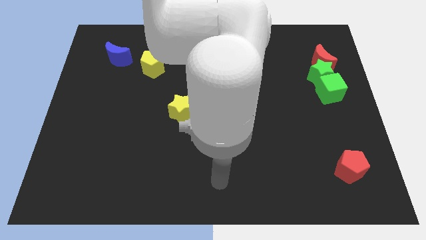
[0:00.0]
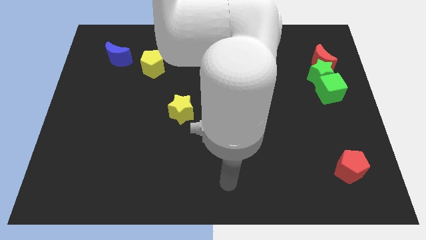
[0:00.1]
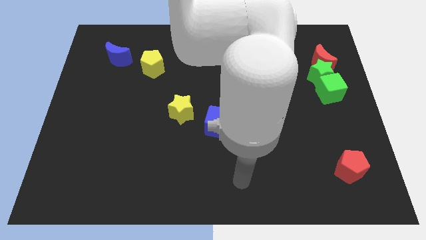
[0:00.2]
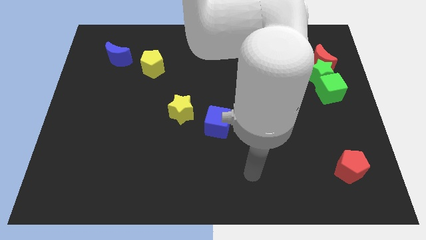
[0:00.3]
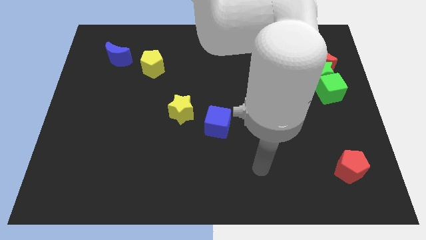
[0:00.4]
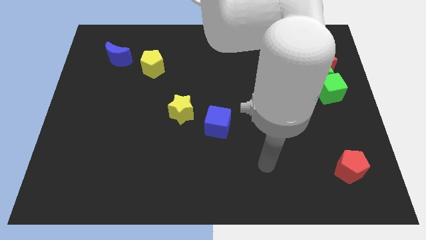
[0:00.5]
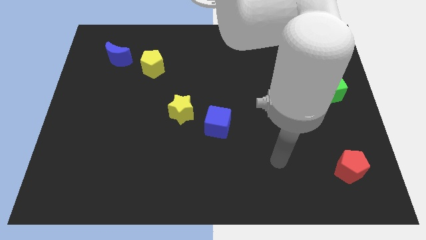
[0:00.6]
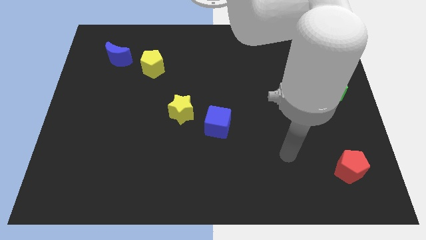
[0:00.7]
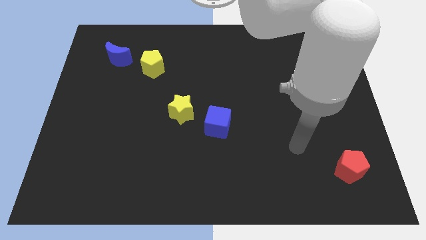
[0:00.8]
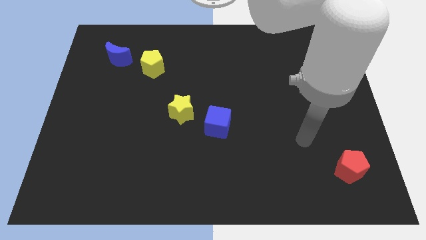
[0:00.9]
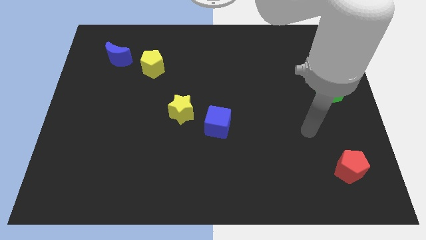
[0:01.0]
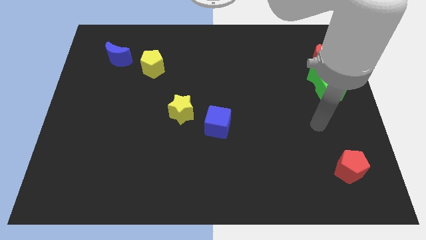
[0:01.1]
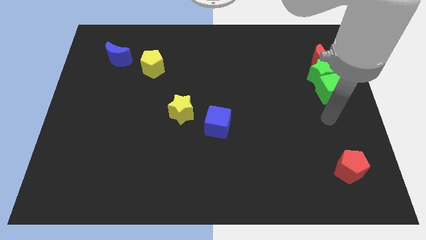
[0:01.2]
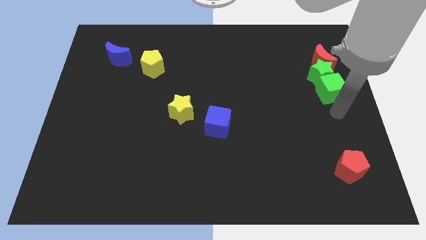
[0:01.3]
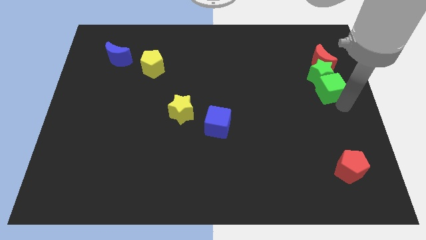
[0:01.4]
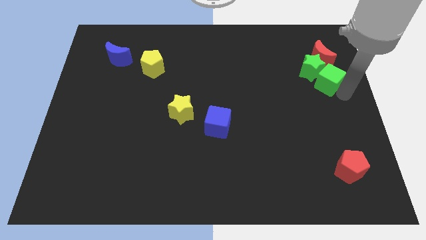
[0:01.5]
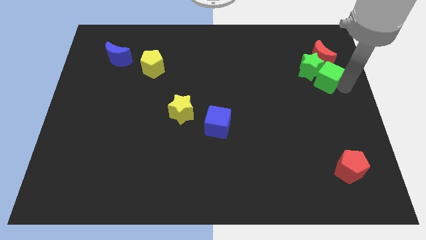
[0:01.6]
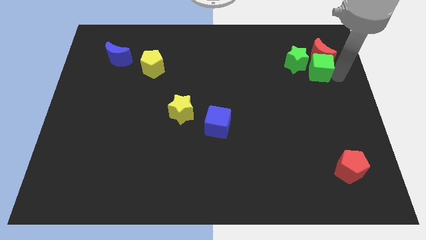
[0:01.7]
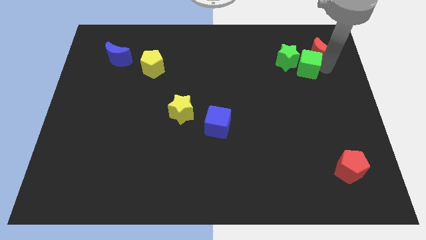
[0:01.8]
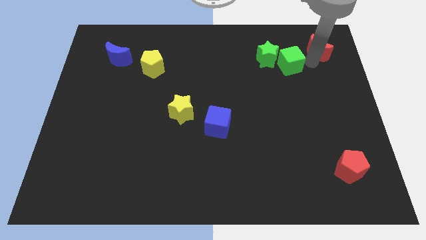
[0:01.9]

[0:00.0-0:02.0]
move the green star away from the red moon and green cube

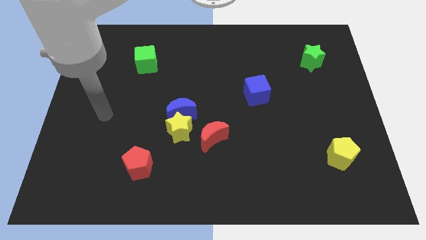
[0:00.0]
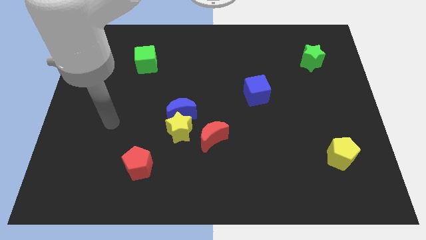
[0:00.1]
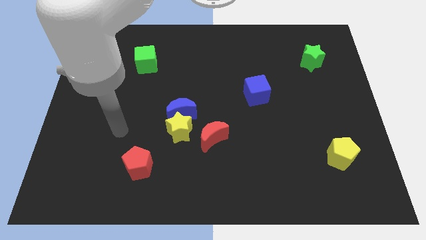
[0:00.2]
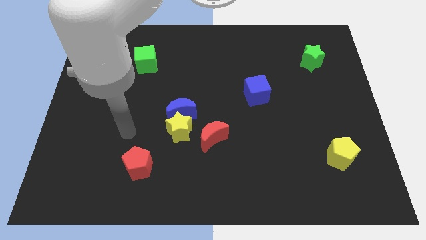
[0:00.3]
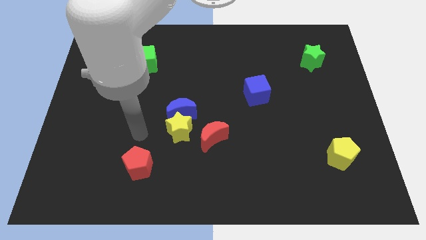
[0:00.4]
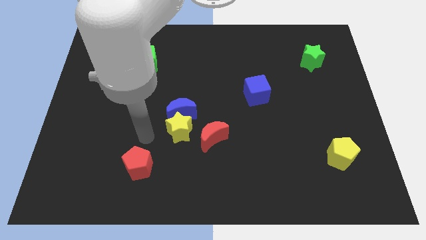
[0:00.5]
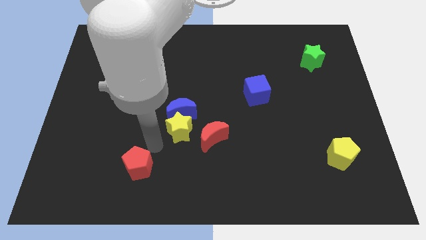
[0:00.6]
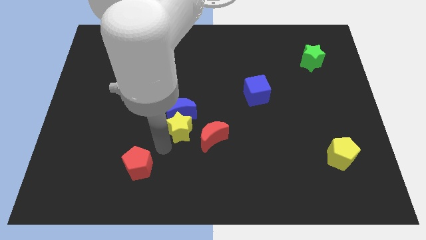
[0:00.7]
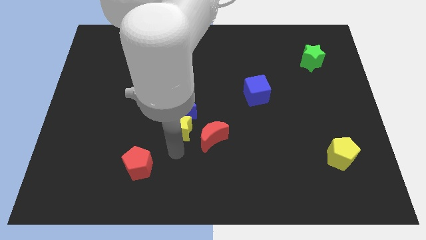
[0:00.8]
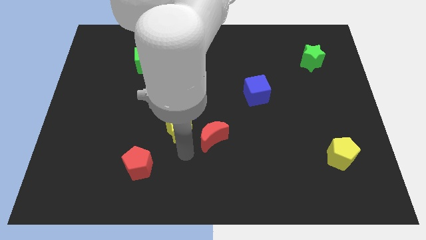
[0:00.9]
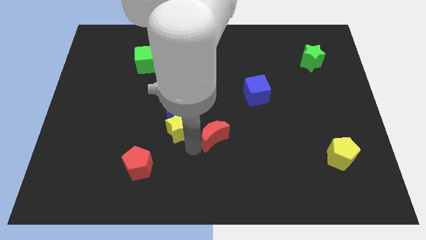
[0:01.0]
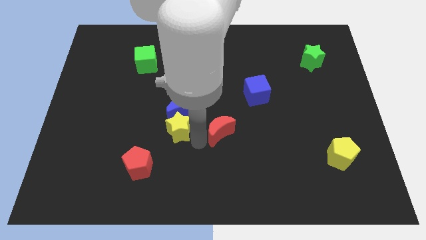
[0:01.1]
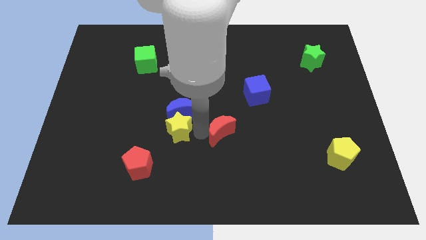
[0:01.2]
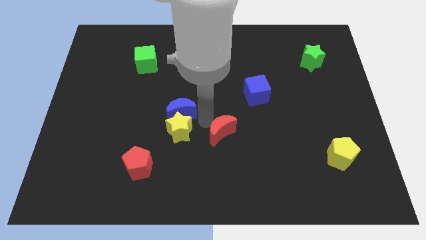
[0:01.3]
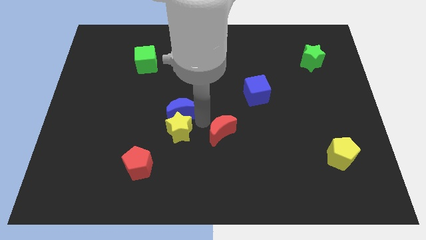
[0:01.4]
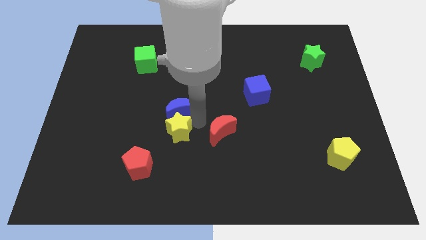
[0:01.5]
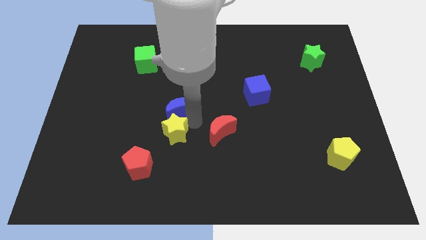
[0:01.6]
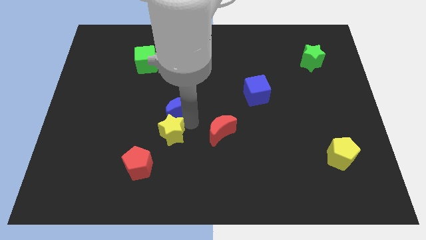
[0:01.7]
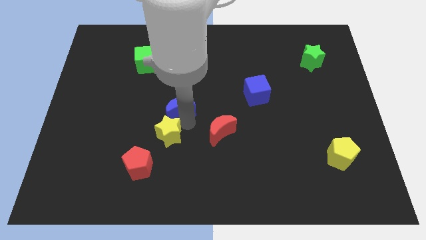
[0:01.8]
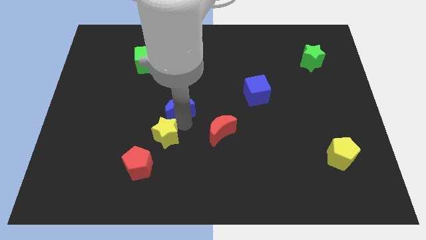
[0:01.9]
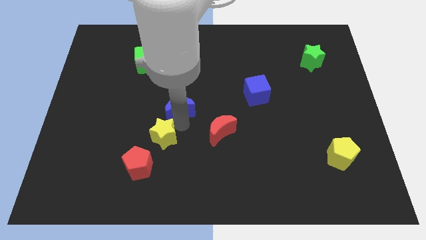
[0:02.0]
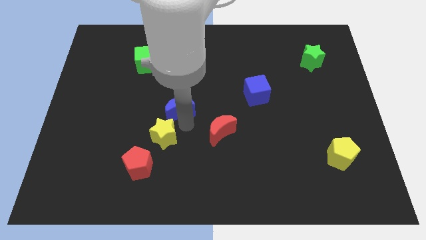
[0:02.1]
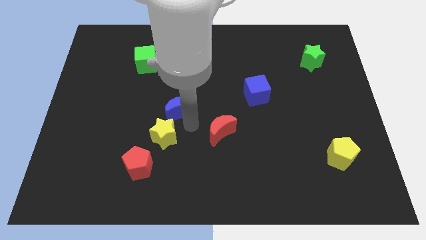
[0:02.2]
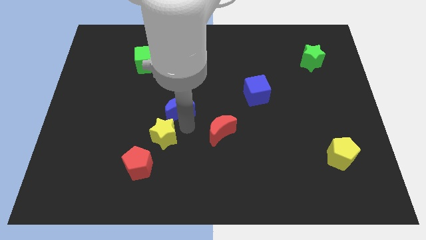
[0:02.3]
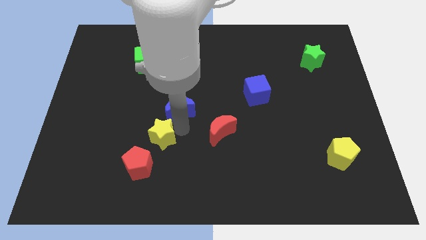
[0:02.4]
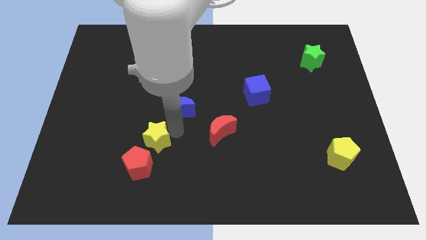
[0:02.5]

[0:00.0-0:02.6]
move the yellow star away from the blue moon and red moon

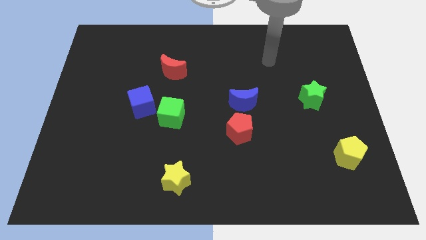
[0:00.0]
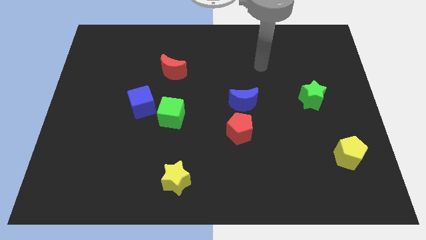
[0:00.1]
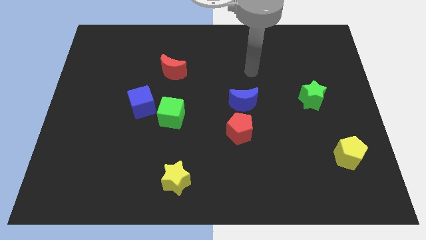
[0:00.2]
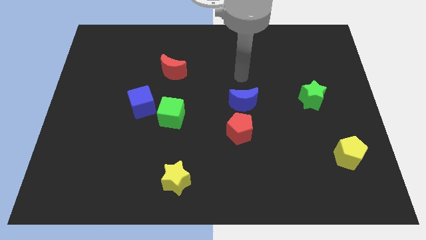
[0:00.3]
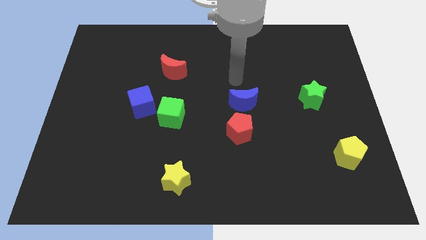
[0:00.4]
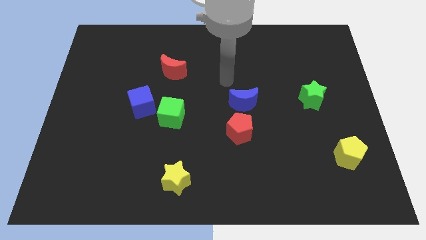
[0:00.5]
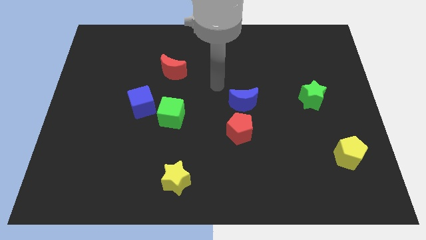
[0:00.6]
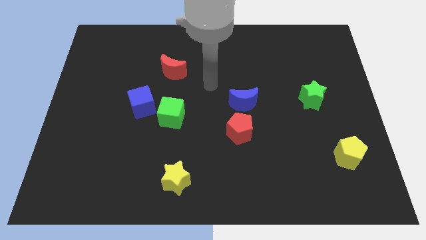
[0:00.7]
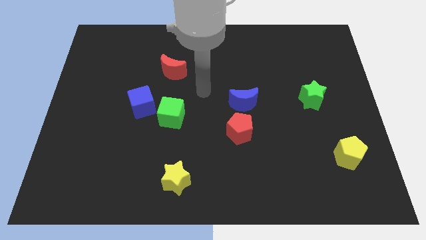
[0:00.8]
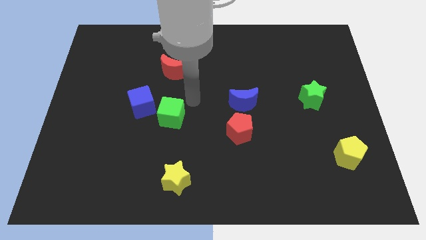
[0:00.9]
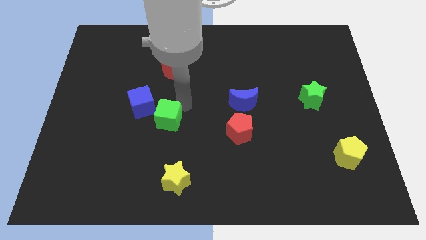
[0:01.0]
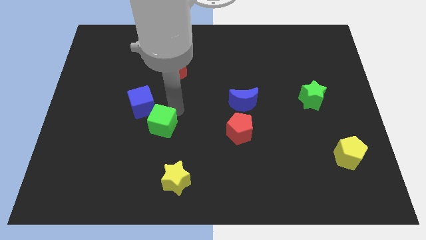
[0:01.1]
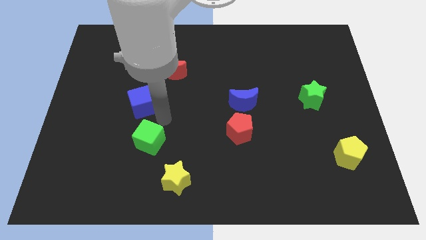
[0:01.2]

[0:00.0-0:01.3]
separate the blue cube from the green cube

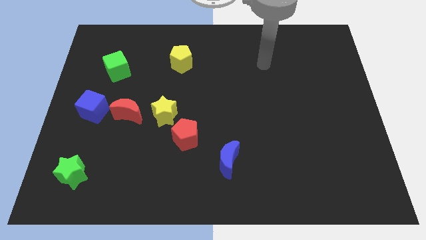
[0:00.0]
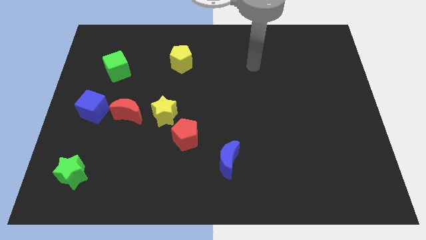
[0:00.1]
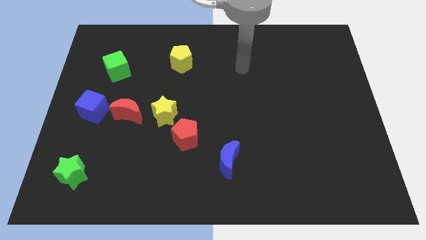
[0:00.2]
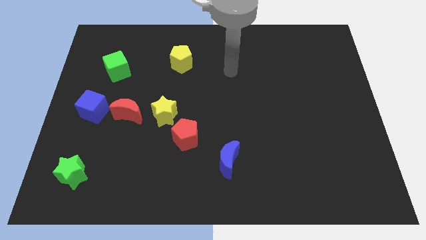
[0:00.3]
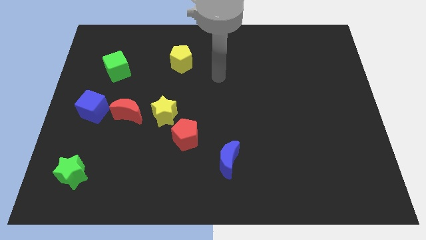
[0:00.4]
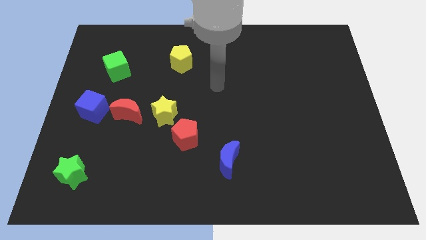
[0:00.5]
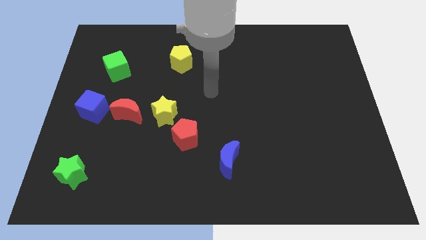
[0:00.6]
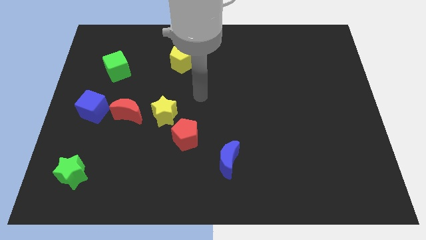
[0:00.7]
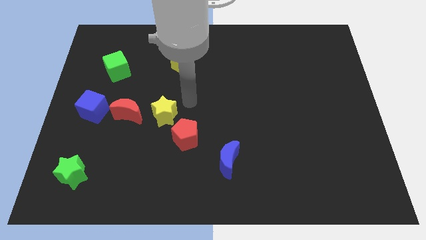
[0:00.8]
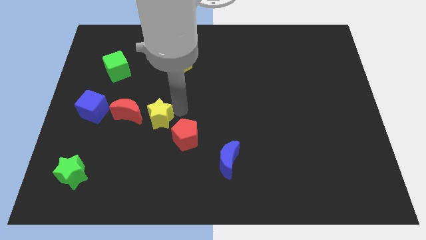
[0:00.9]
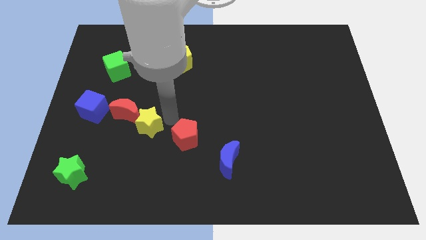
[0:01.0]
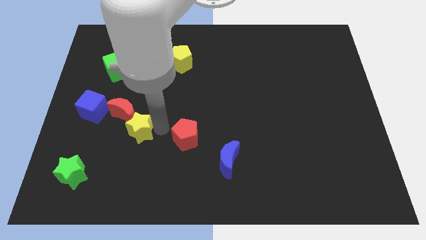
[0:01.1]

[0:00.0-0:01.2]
pull the red pentagon apart from the yellow star

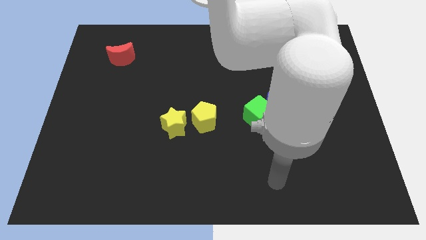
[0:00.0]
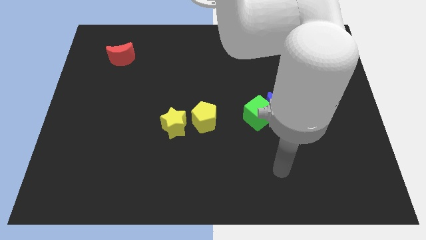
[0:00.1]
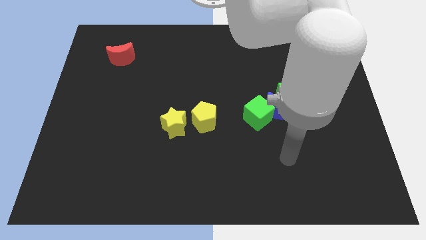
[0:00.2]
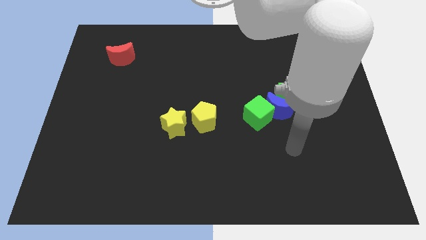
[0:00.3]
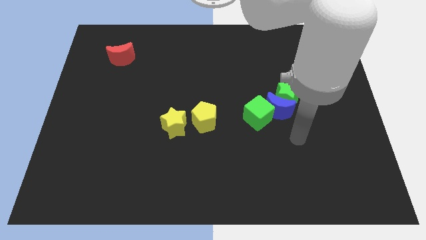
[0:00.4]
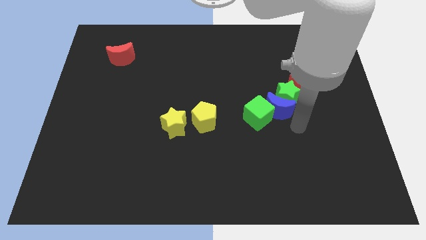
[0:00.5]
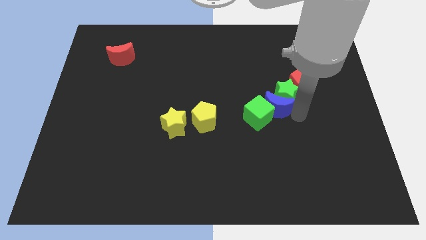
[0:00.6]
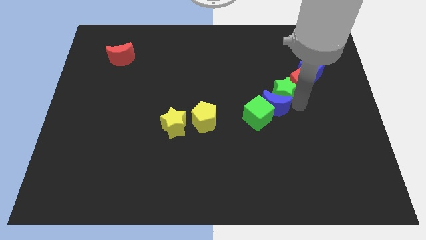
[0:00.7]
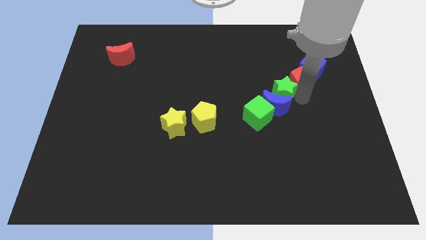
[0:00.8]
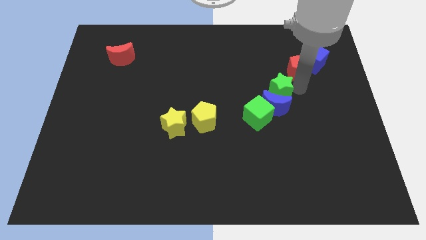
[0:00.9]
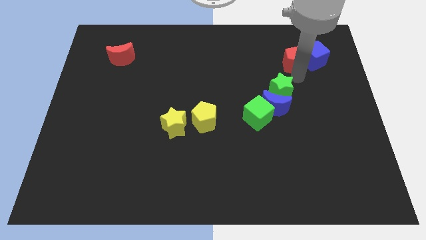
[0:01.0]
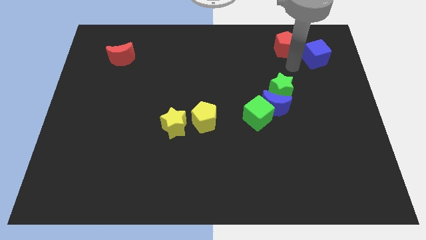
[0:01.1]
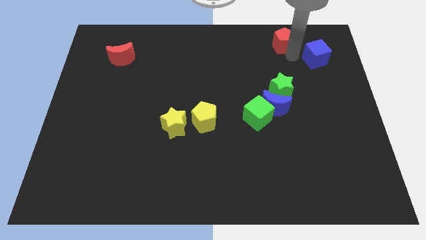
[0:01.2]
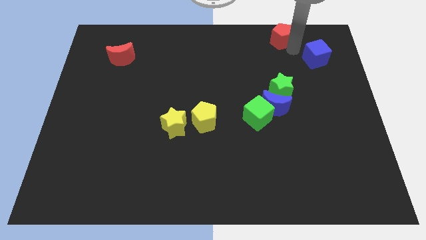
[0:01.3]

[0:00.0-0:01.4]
move the blue cube away from the red pentagon

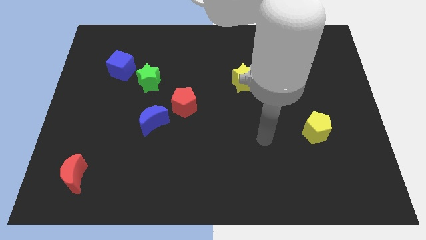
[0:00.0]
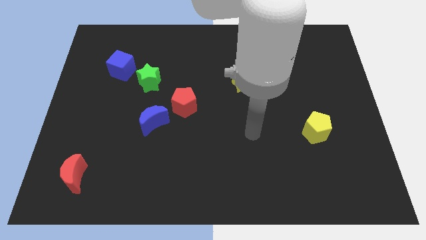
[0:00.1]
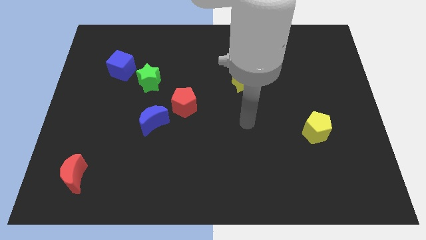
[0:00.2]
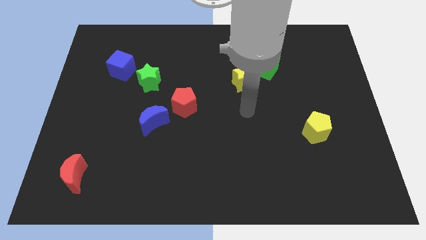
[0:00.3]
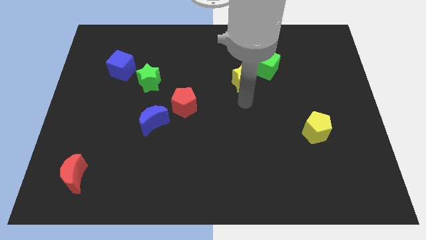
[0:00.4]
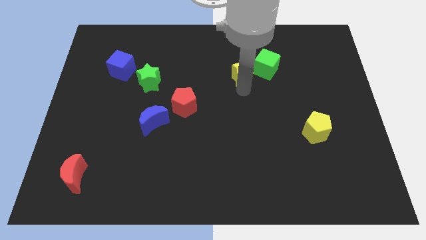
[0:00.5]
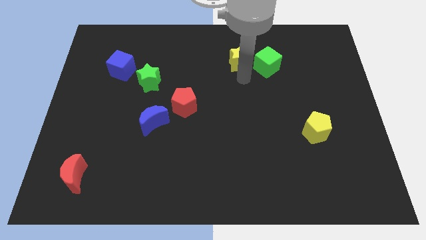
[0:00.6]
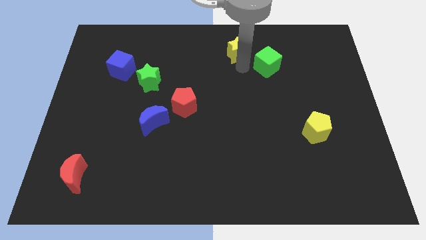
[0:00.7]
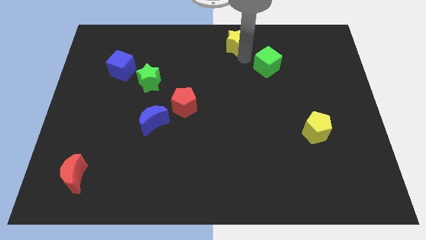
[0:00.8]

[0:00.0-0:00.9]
separate the green cube from the yellow star
